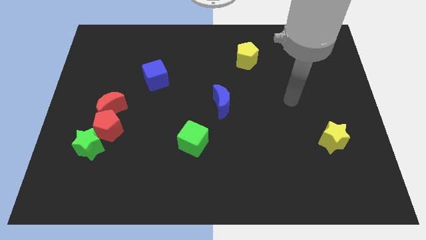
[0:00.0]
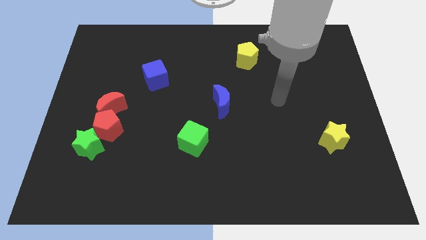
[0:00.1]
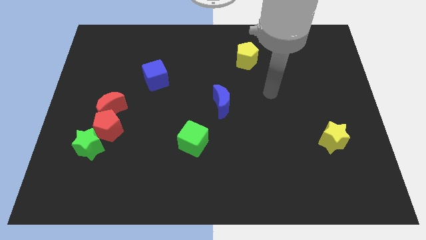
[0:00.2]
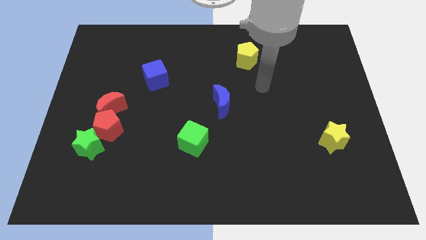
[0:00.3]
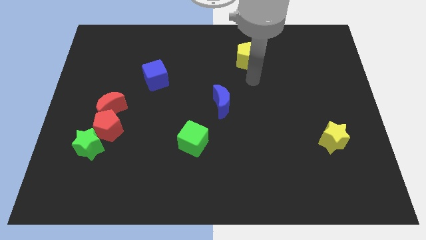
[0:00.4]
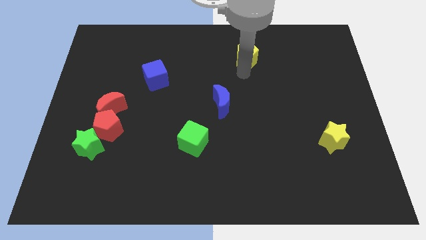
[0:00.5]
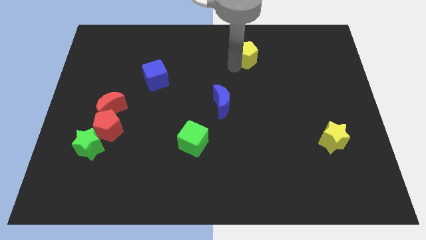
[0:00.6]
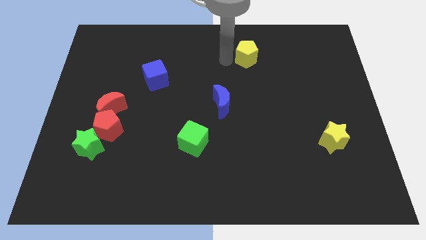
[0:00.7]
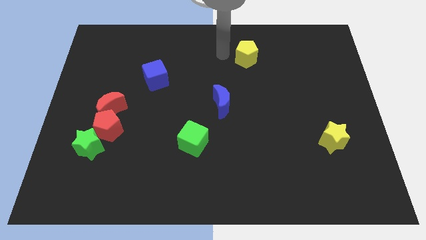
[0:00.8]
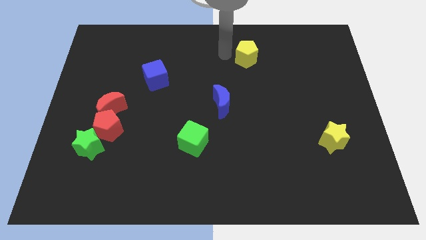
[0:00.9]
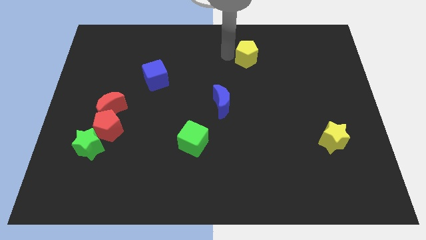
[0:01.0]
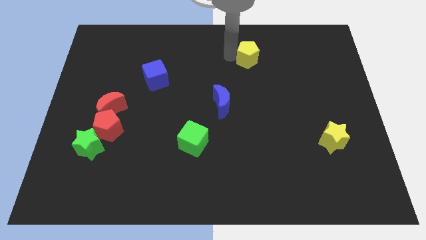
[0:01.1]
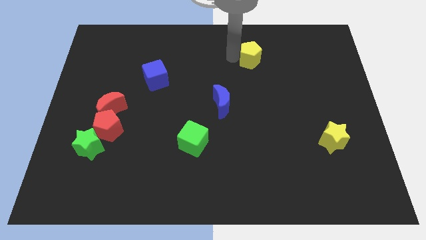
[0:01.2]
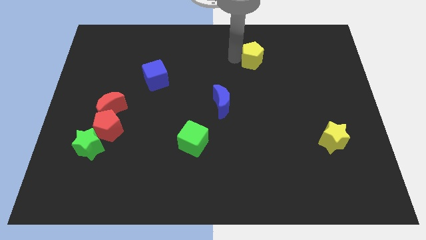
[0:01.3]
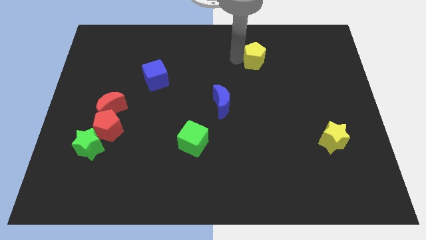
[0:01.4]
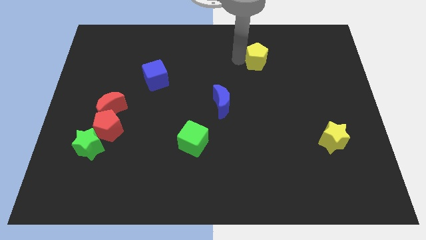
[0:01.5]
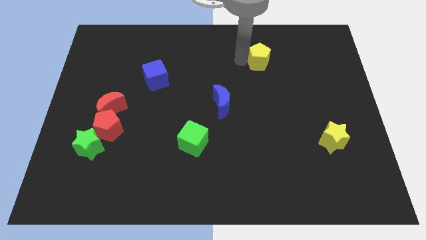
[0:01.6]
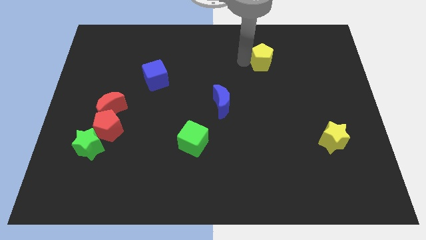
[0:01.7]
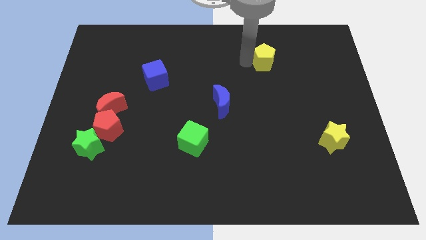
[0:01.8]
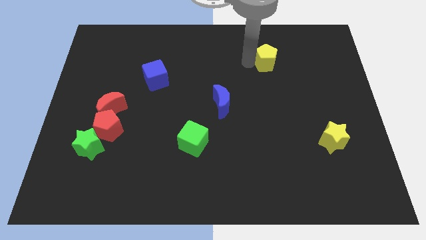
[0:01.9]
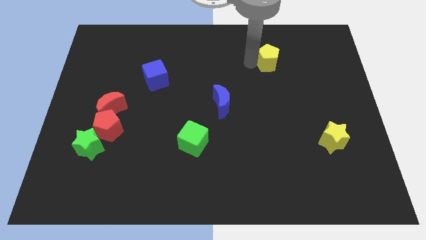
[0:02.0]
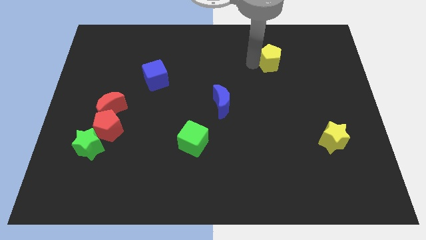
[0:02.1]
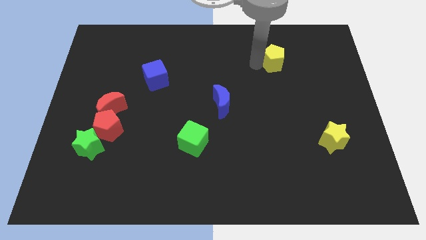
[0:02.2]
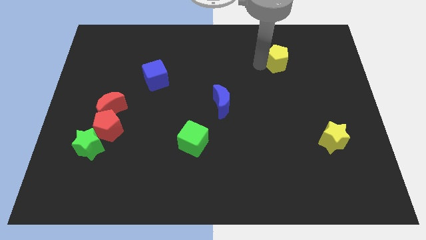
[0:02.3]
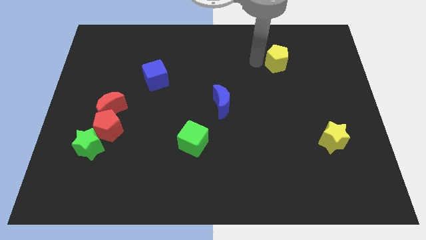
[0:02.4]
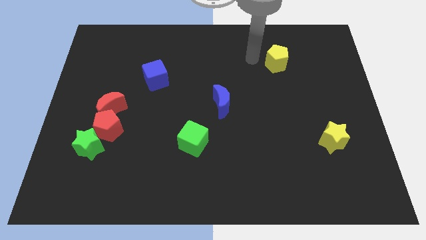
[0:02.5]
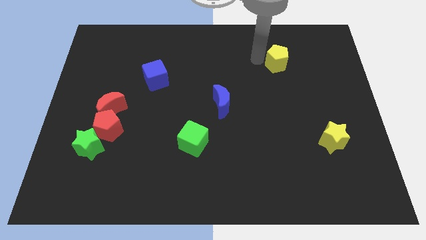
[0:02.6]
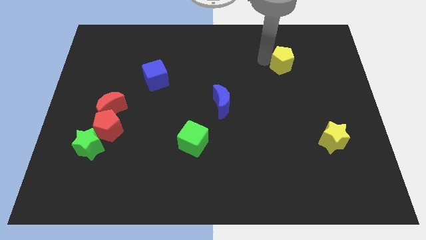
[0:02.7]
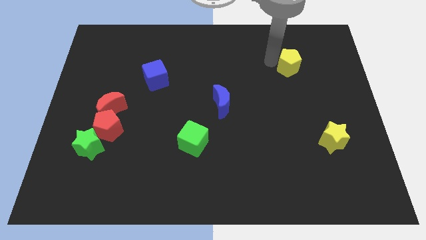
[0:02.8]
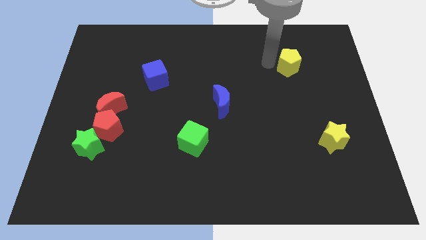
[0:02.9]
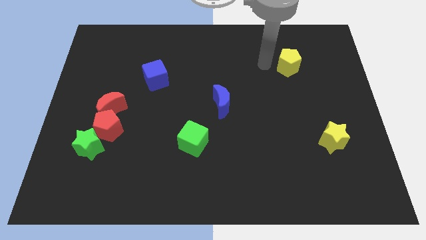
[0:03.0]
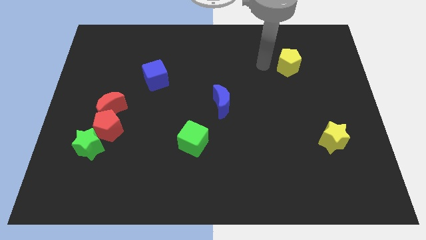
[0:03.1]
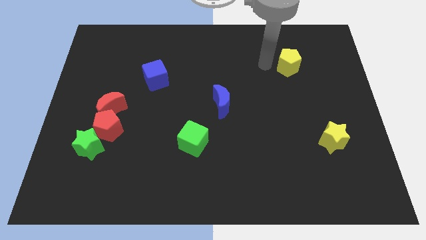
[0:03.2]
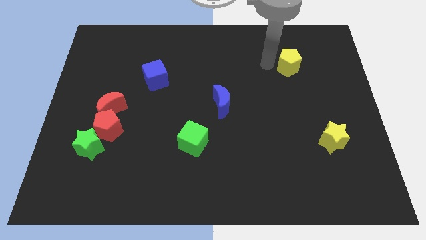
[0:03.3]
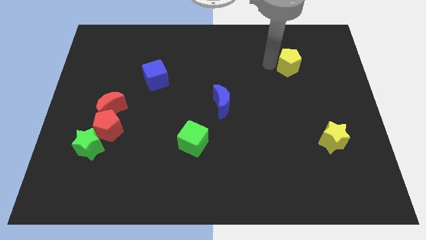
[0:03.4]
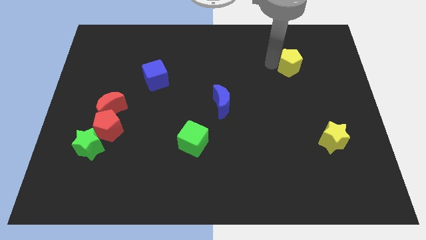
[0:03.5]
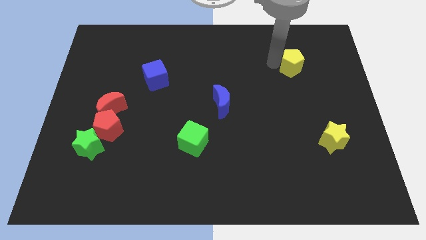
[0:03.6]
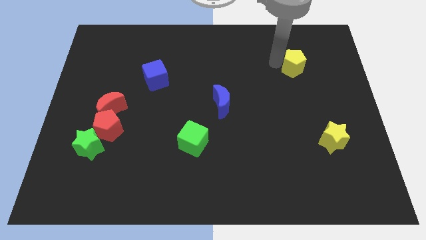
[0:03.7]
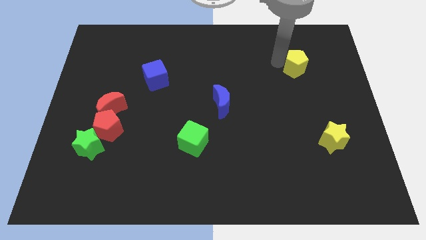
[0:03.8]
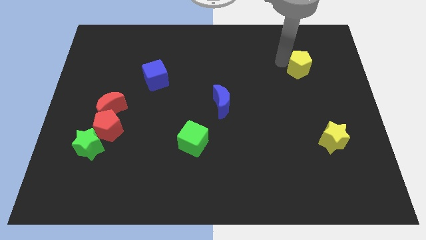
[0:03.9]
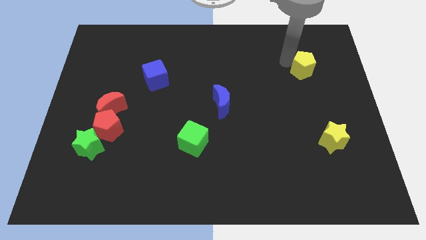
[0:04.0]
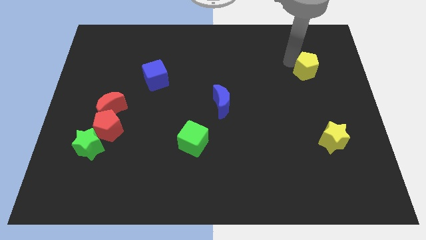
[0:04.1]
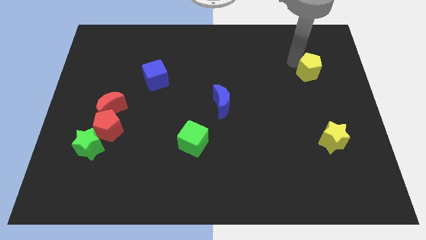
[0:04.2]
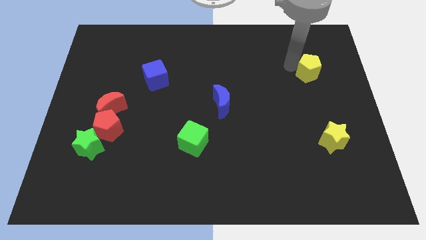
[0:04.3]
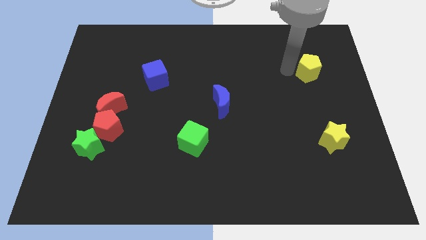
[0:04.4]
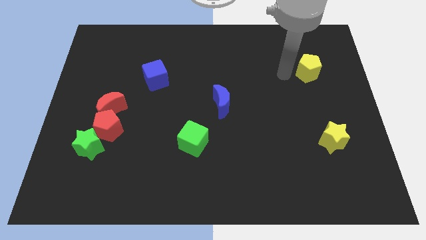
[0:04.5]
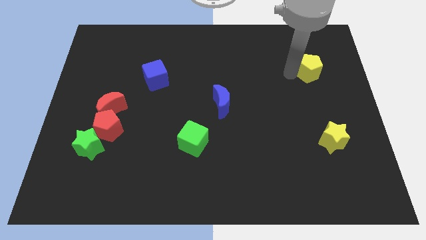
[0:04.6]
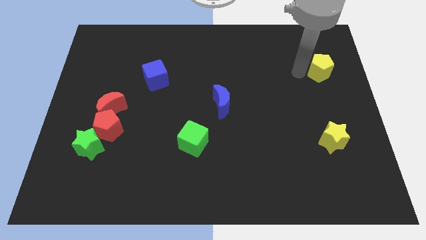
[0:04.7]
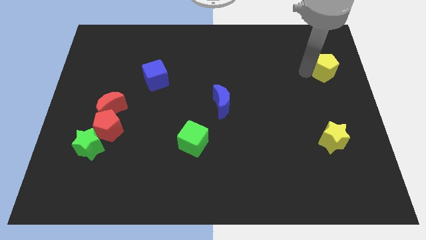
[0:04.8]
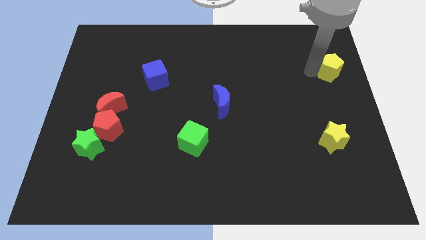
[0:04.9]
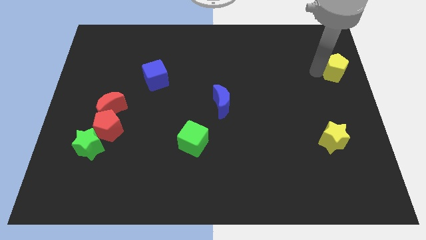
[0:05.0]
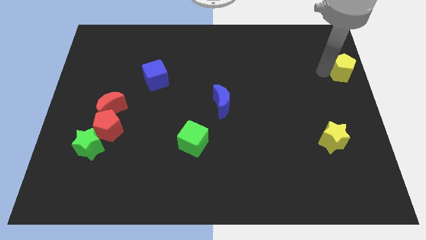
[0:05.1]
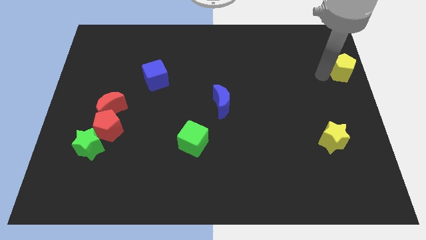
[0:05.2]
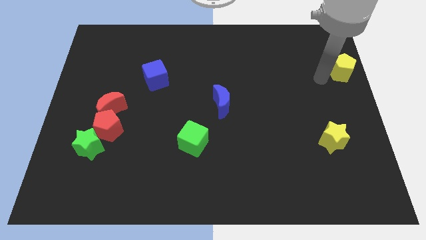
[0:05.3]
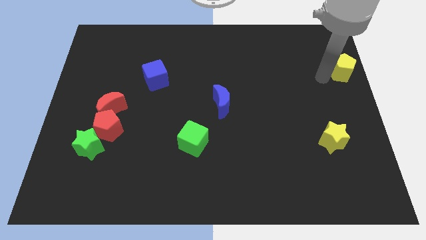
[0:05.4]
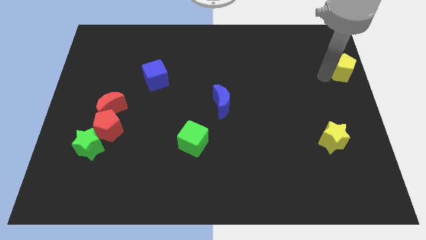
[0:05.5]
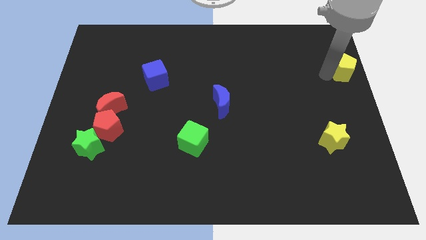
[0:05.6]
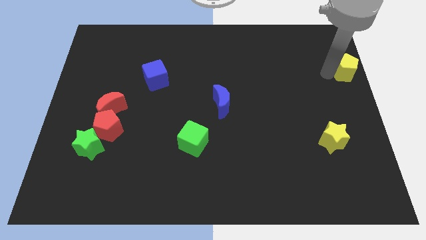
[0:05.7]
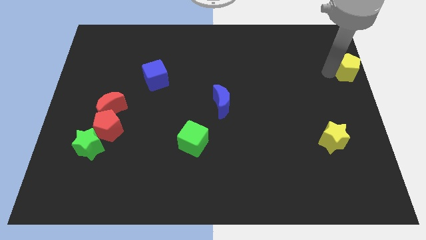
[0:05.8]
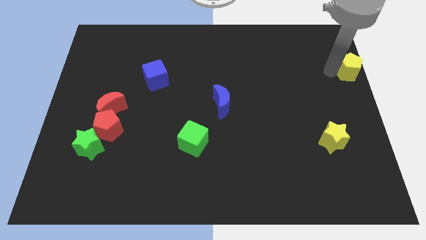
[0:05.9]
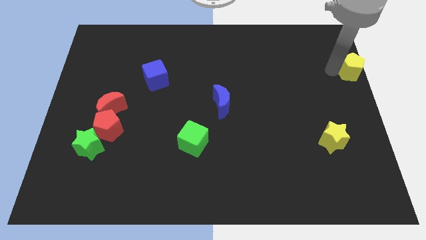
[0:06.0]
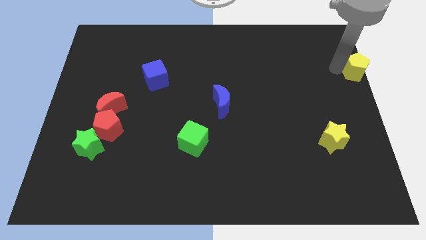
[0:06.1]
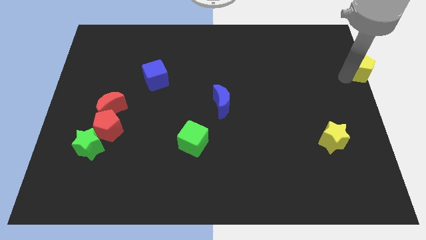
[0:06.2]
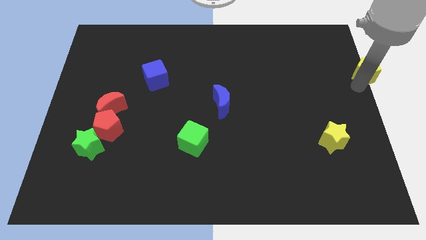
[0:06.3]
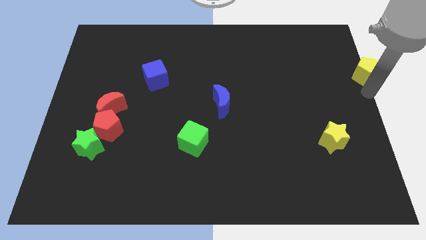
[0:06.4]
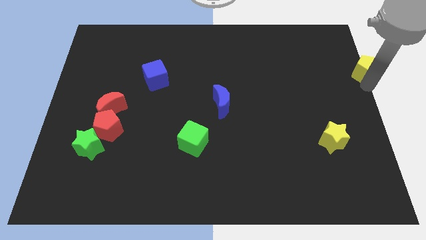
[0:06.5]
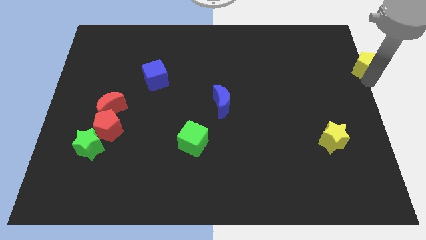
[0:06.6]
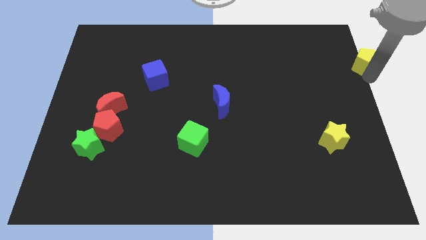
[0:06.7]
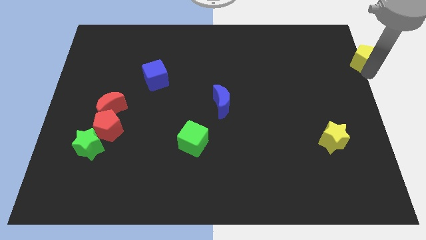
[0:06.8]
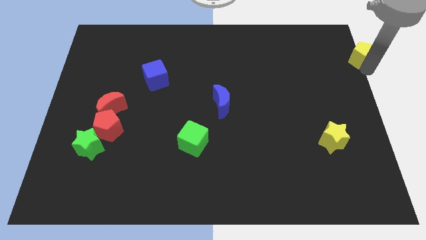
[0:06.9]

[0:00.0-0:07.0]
push the yellow pentagon to the top right of the board
